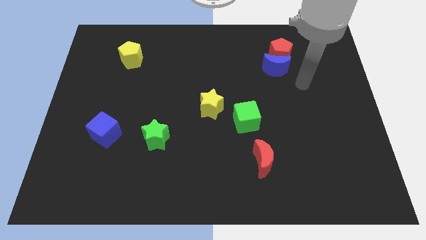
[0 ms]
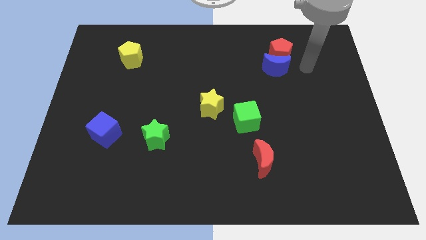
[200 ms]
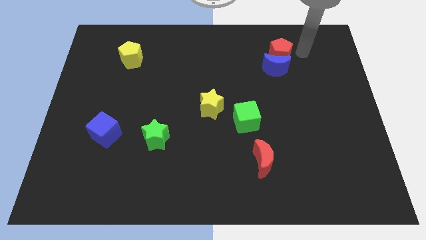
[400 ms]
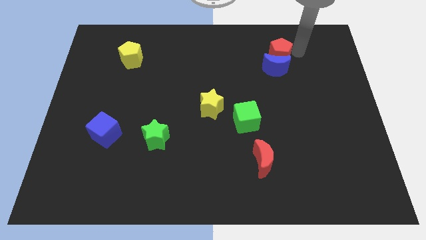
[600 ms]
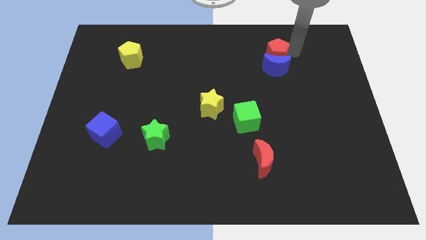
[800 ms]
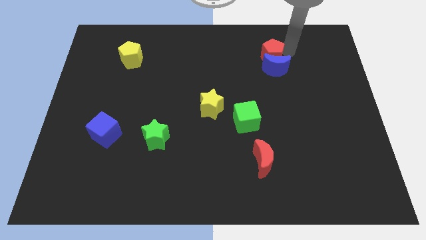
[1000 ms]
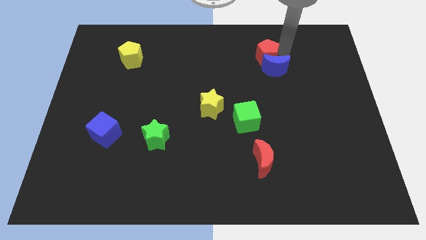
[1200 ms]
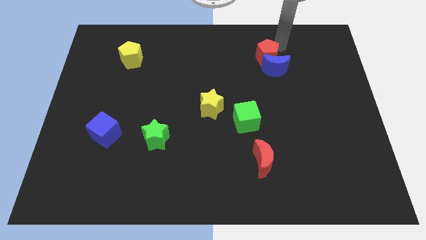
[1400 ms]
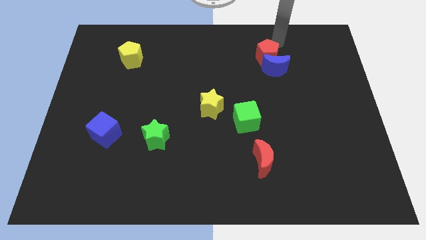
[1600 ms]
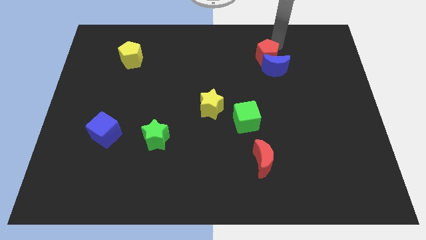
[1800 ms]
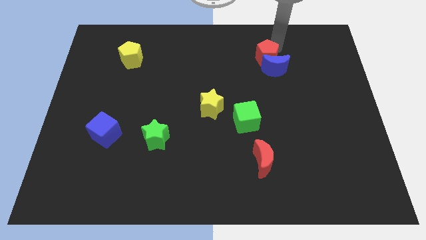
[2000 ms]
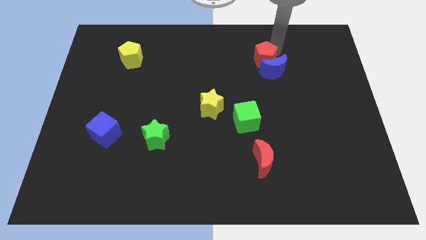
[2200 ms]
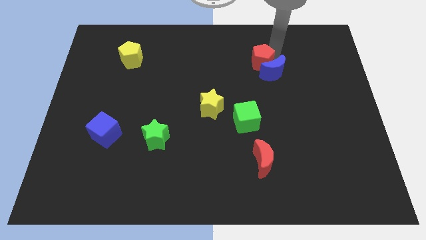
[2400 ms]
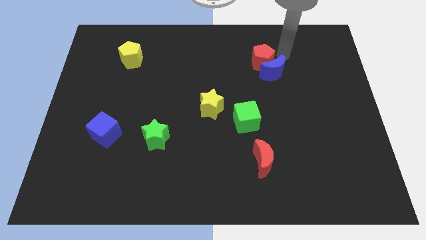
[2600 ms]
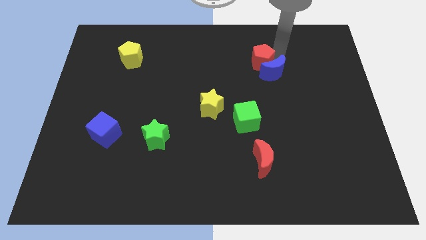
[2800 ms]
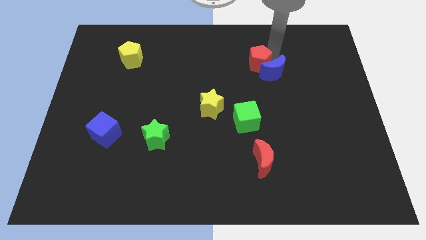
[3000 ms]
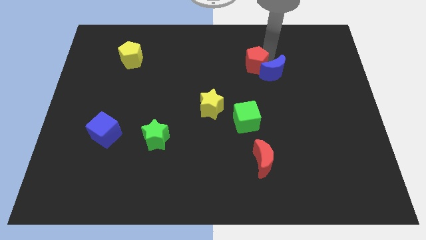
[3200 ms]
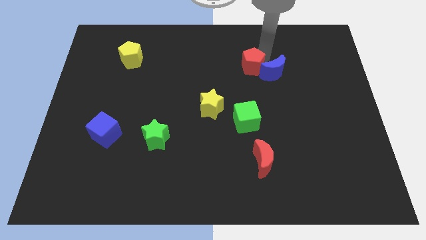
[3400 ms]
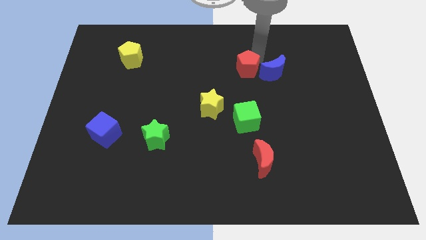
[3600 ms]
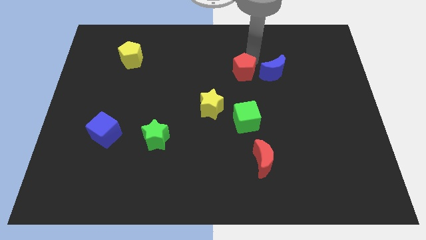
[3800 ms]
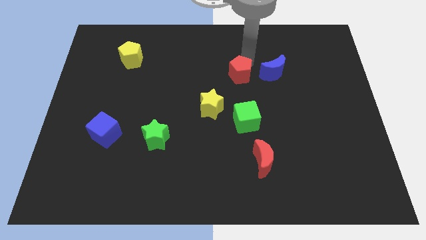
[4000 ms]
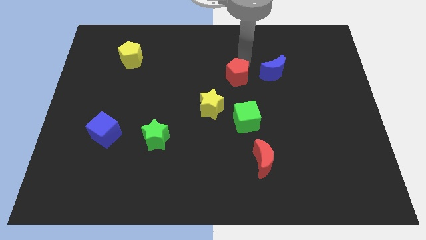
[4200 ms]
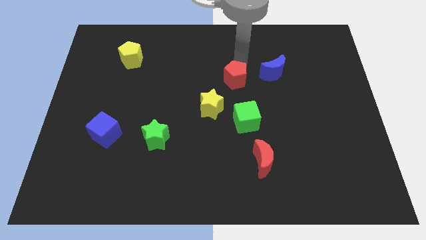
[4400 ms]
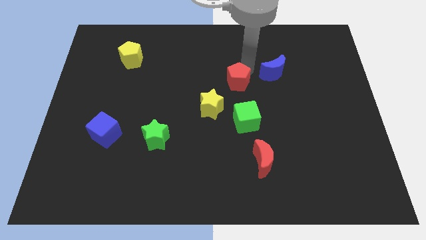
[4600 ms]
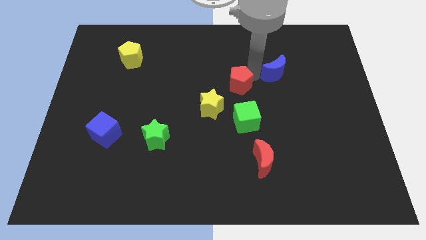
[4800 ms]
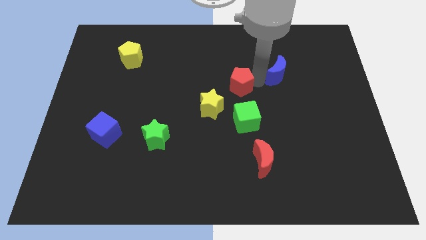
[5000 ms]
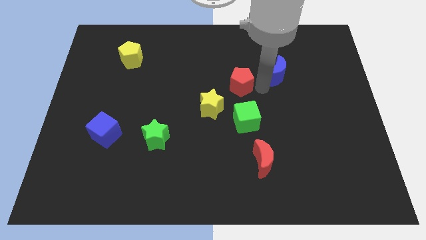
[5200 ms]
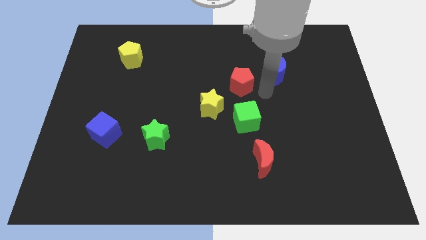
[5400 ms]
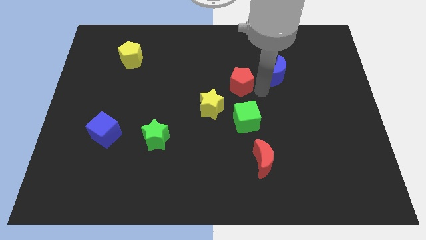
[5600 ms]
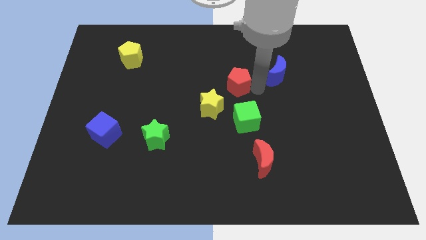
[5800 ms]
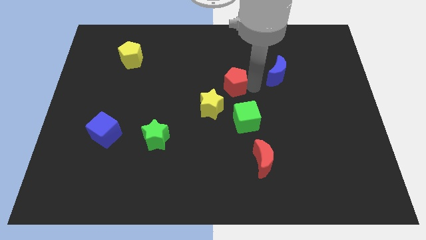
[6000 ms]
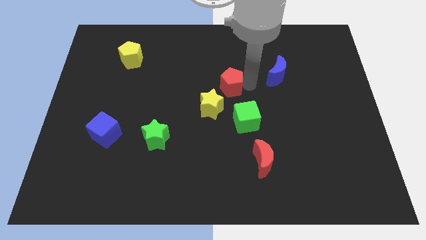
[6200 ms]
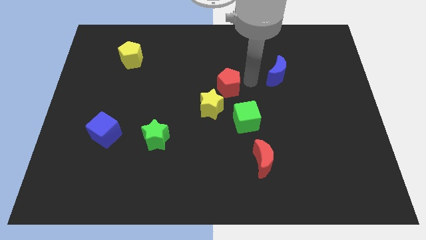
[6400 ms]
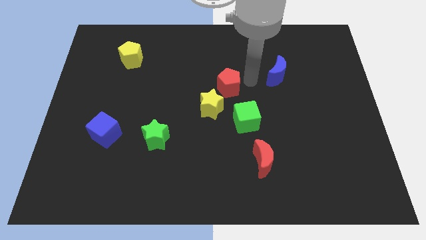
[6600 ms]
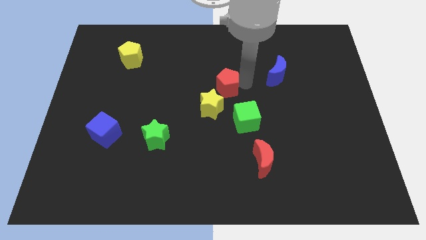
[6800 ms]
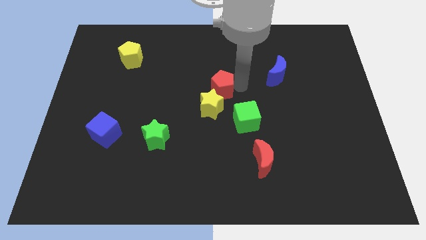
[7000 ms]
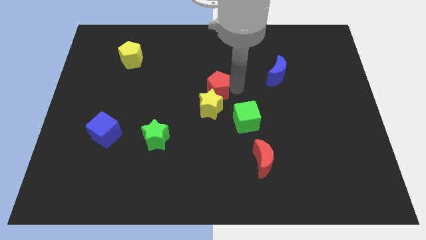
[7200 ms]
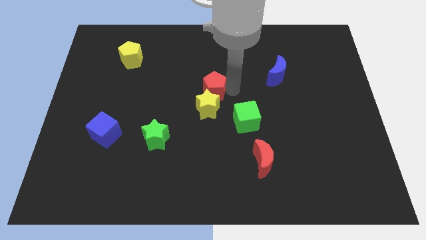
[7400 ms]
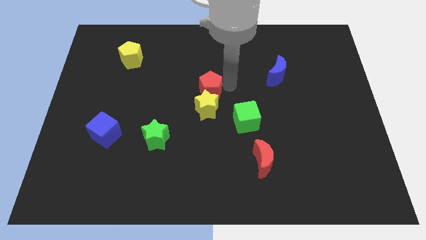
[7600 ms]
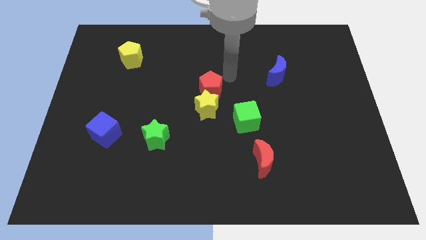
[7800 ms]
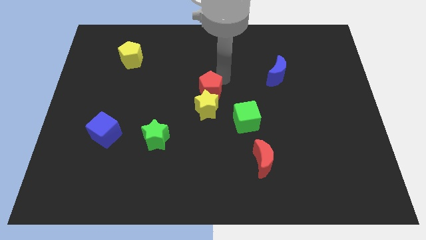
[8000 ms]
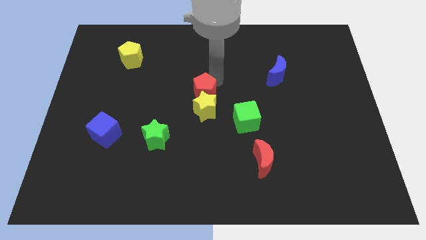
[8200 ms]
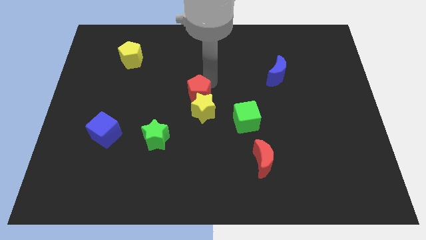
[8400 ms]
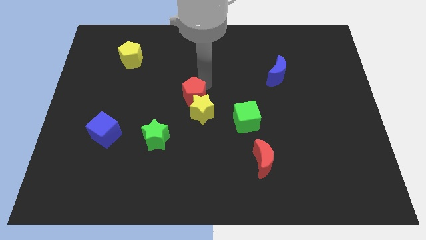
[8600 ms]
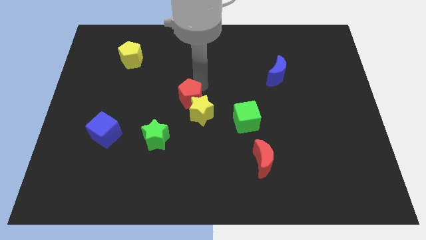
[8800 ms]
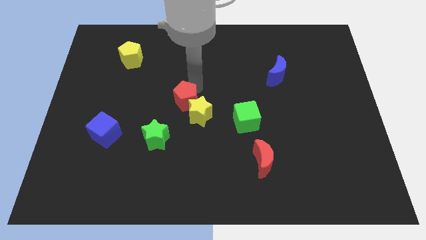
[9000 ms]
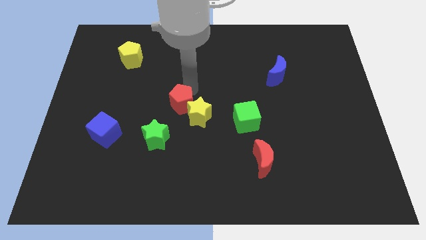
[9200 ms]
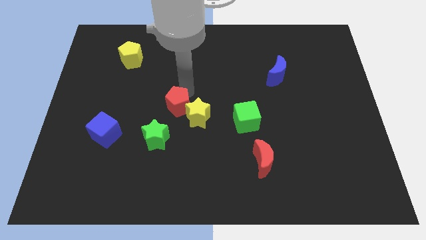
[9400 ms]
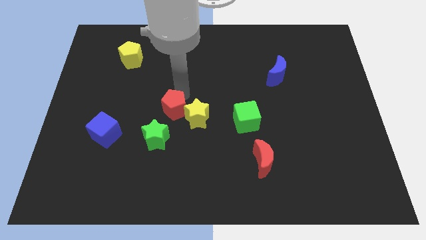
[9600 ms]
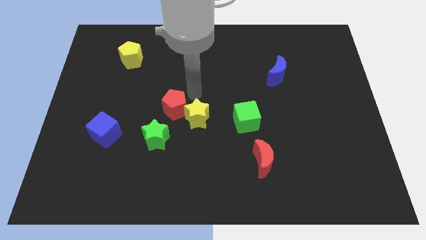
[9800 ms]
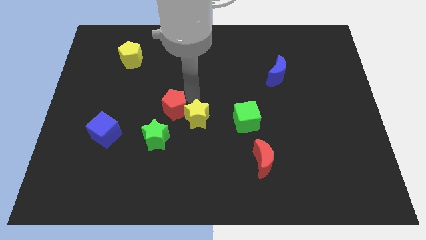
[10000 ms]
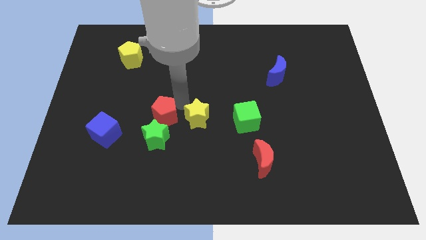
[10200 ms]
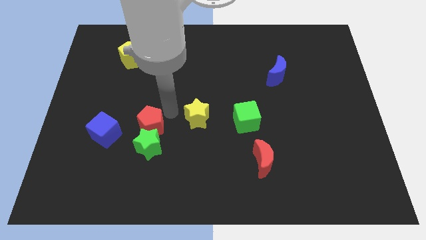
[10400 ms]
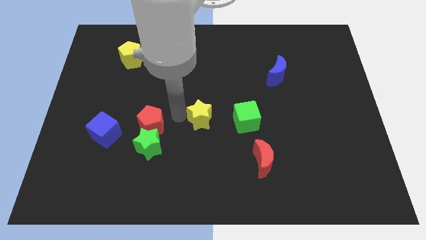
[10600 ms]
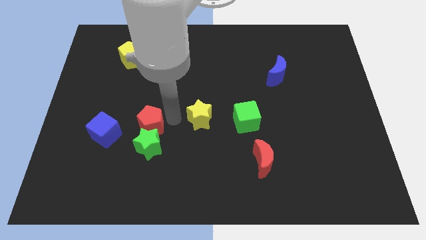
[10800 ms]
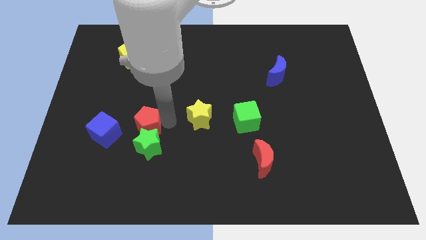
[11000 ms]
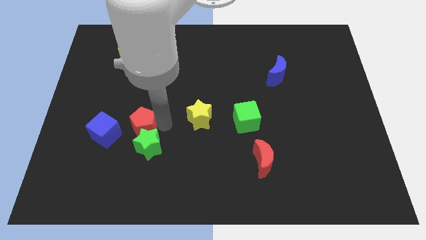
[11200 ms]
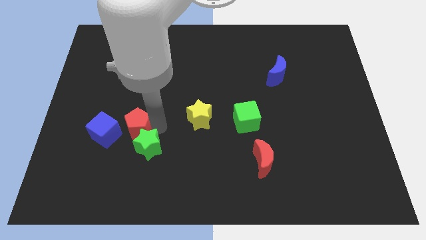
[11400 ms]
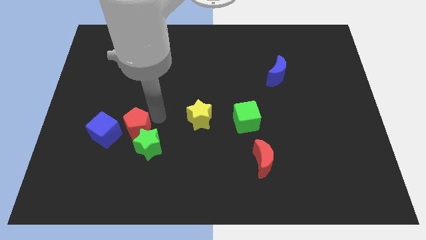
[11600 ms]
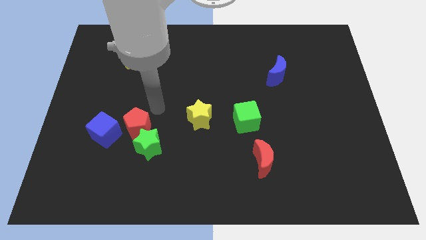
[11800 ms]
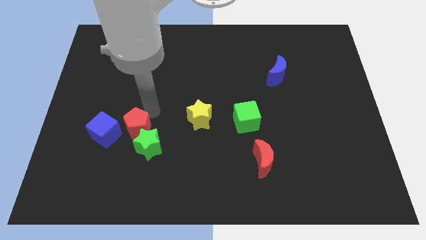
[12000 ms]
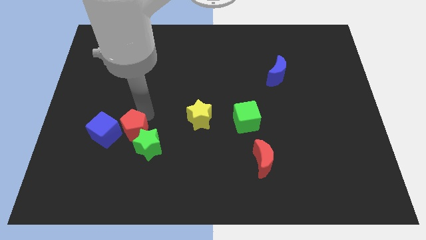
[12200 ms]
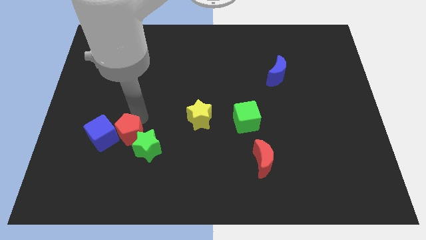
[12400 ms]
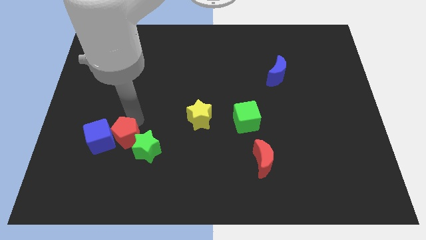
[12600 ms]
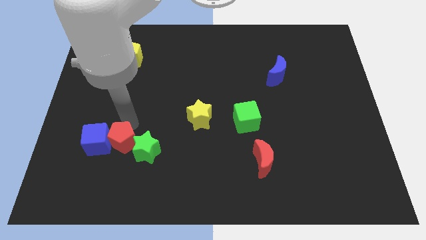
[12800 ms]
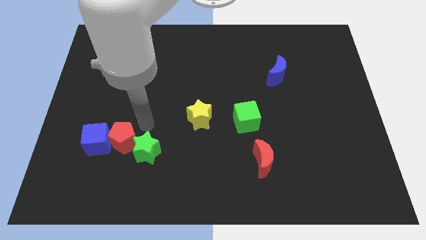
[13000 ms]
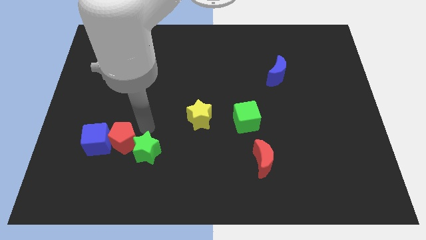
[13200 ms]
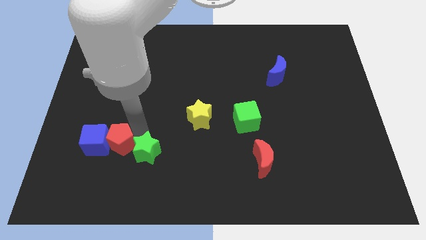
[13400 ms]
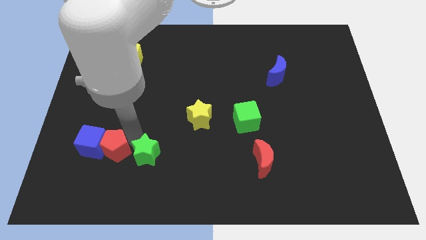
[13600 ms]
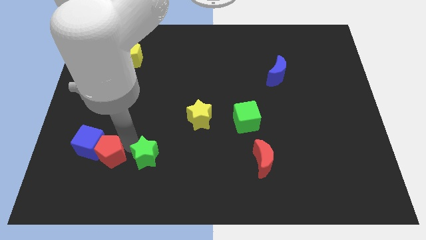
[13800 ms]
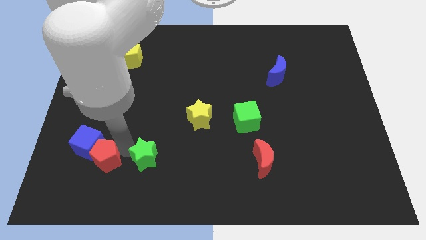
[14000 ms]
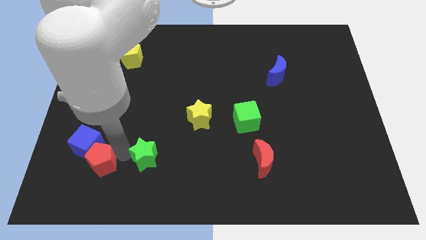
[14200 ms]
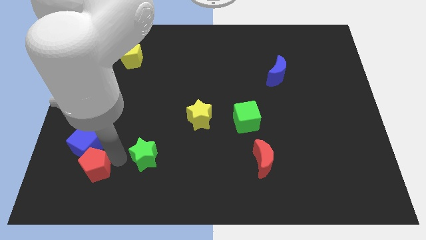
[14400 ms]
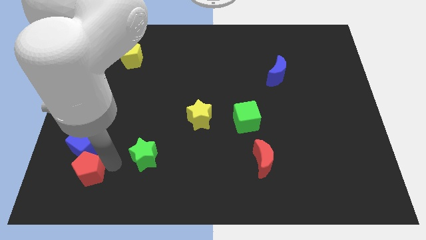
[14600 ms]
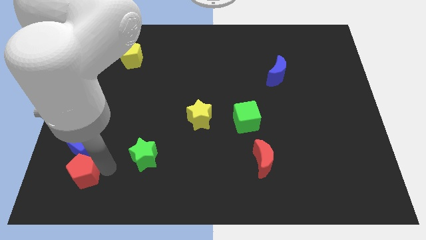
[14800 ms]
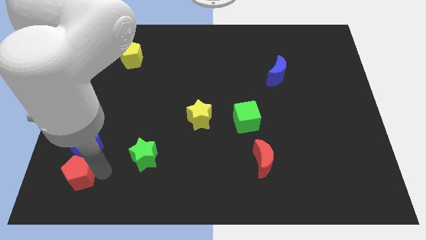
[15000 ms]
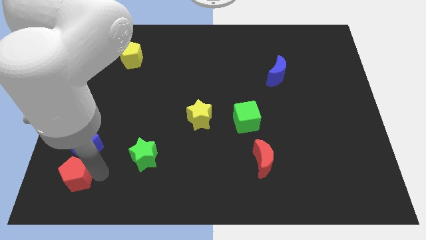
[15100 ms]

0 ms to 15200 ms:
put the red pentagon to the bottom left corner
